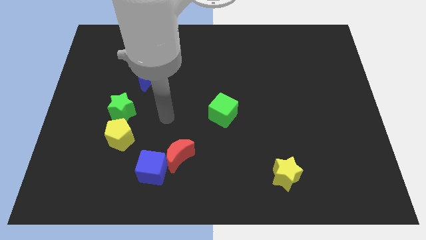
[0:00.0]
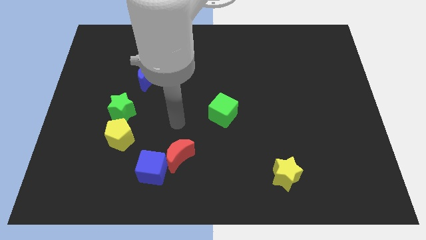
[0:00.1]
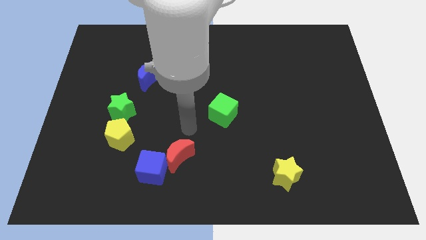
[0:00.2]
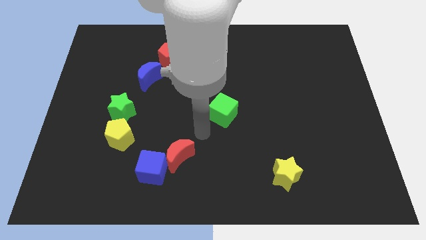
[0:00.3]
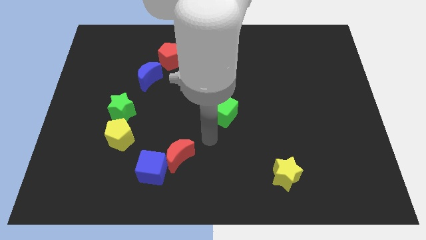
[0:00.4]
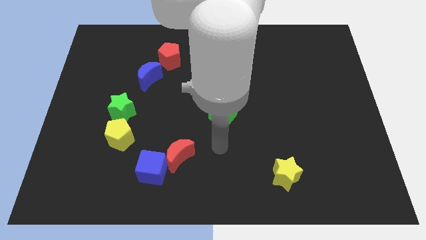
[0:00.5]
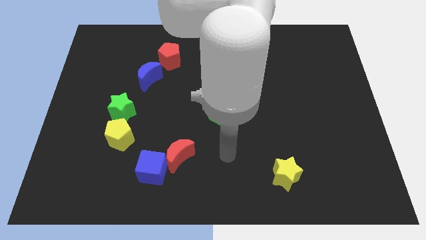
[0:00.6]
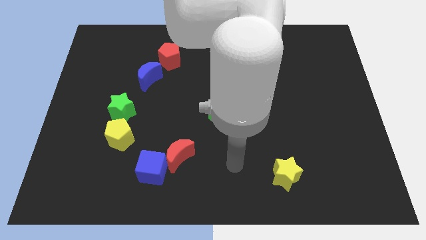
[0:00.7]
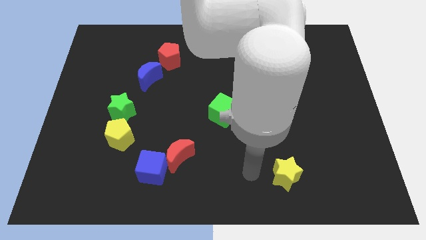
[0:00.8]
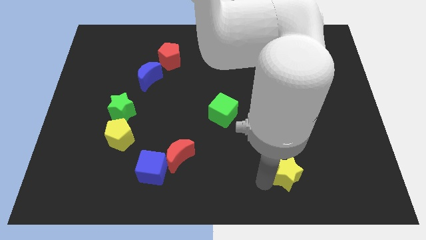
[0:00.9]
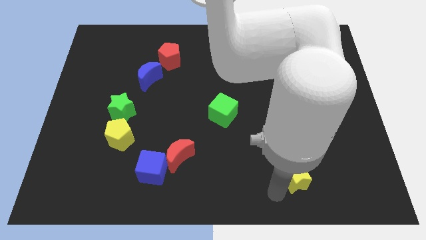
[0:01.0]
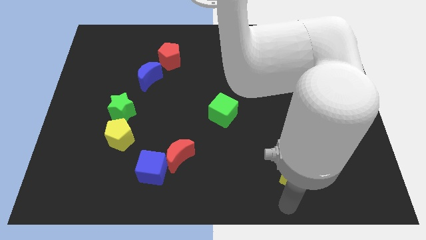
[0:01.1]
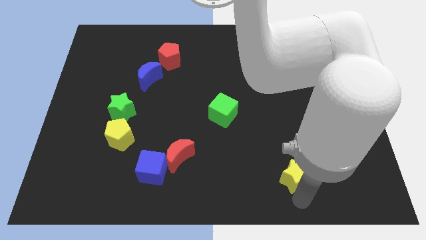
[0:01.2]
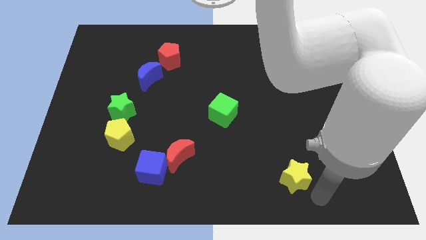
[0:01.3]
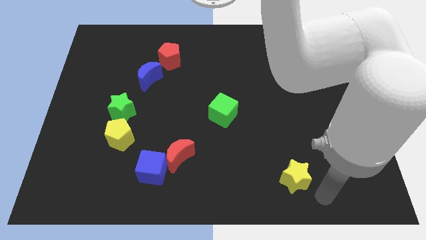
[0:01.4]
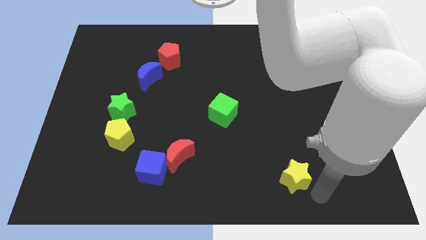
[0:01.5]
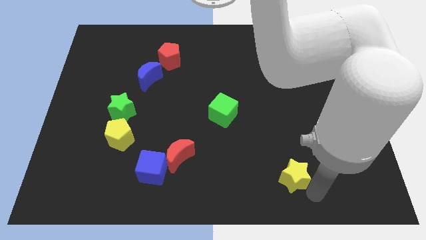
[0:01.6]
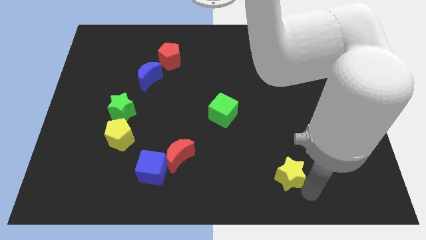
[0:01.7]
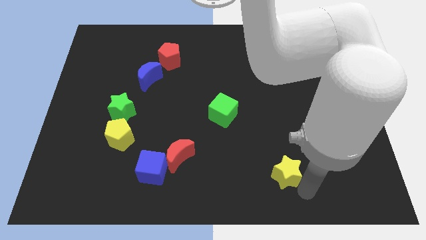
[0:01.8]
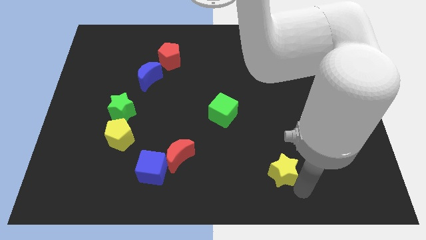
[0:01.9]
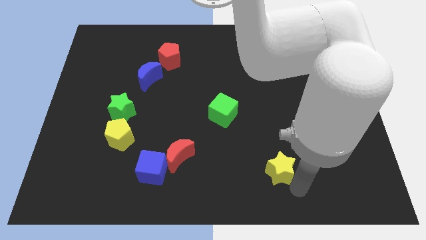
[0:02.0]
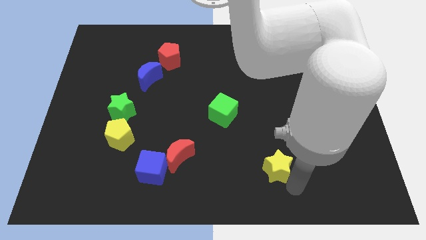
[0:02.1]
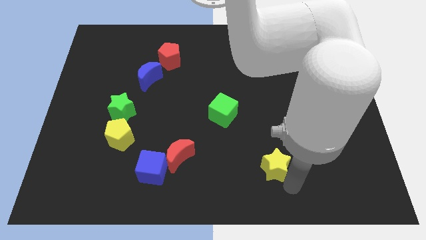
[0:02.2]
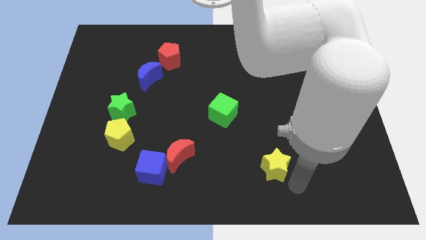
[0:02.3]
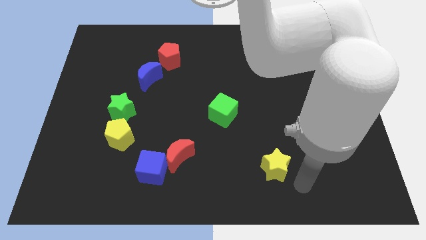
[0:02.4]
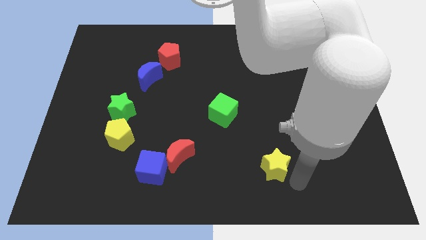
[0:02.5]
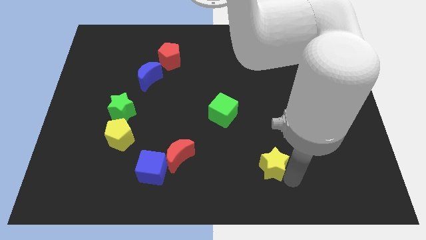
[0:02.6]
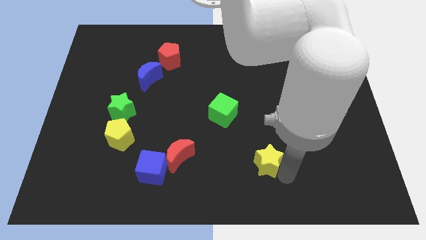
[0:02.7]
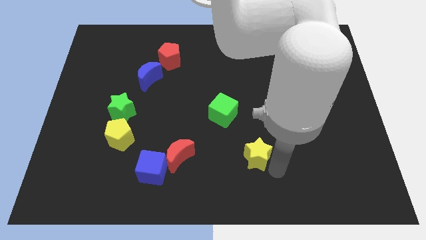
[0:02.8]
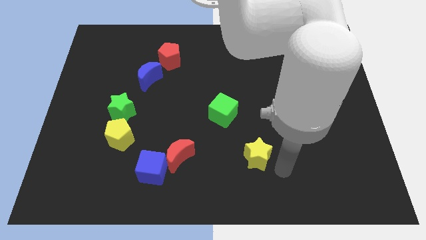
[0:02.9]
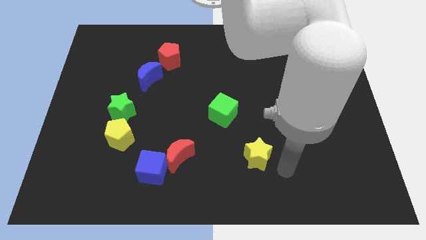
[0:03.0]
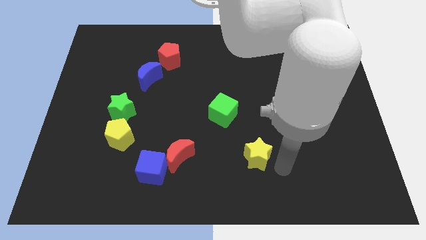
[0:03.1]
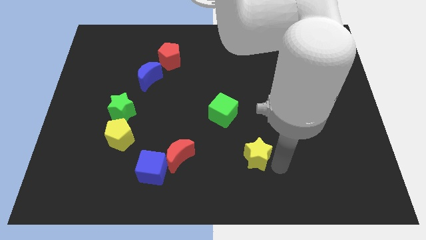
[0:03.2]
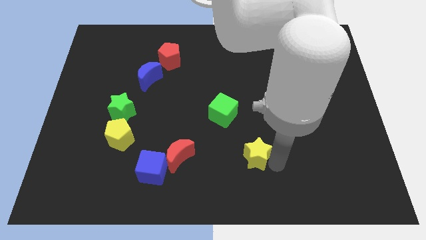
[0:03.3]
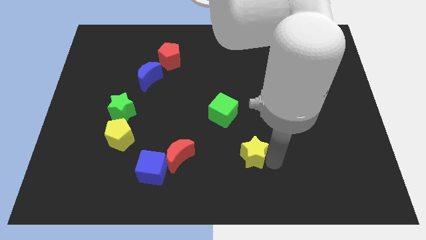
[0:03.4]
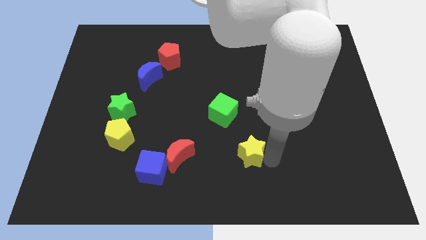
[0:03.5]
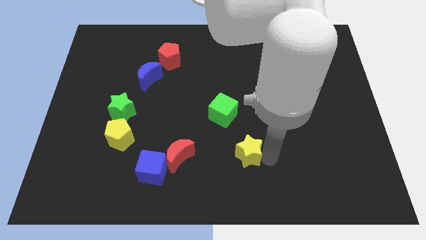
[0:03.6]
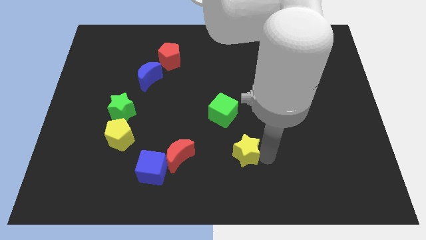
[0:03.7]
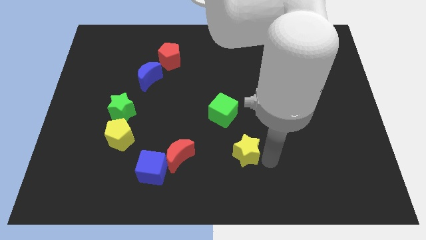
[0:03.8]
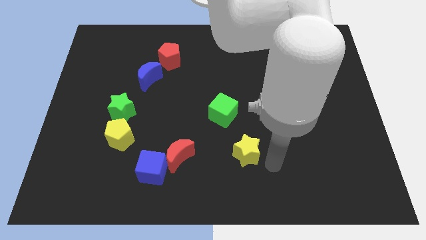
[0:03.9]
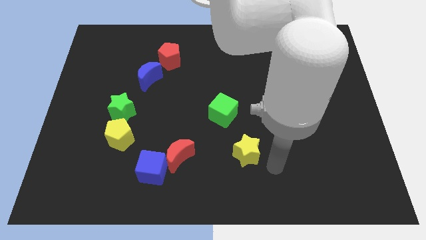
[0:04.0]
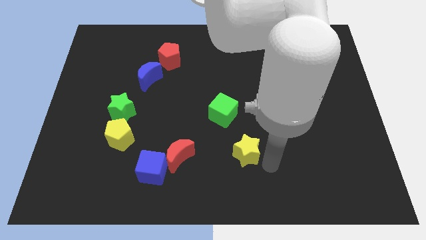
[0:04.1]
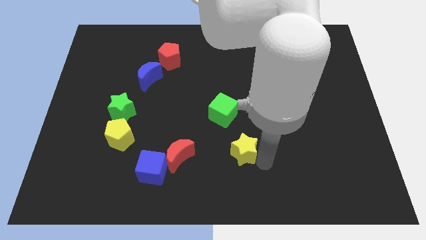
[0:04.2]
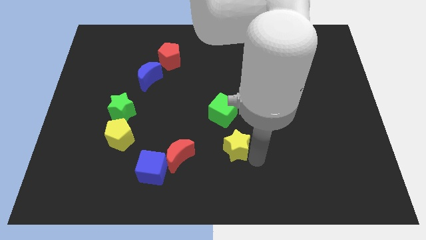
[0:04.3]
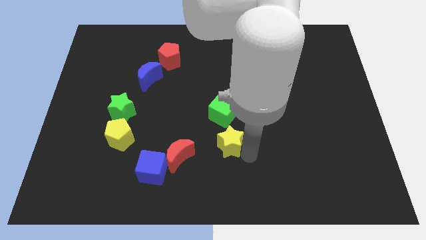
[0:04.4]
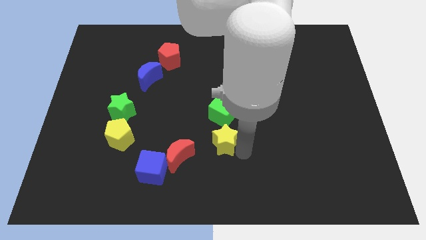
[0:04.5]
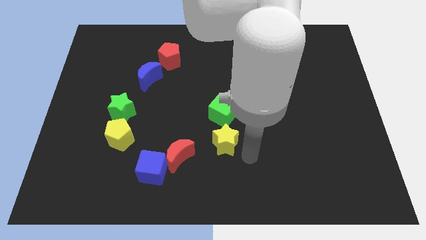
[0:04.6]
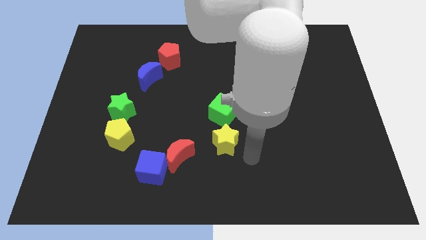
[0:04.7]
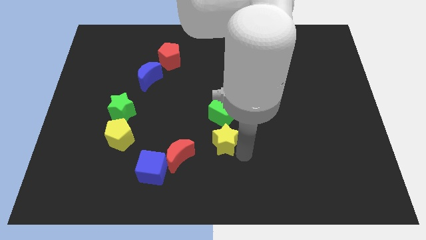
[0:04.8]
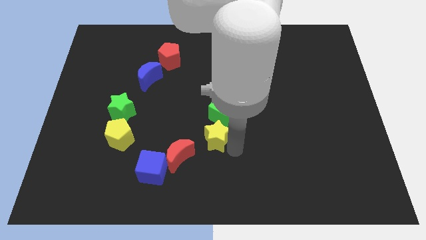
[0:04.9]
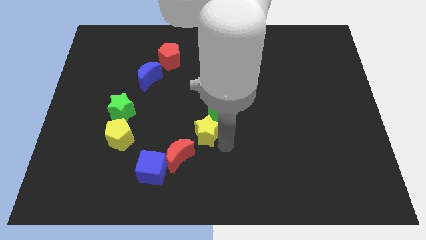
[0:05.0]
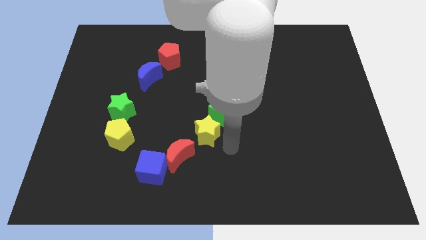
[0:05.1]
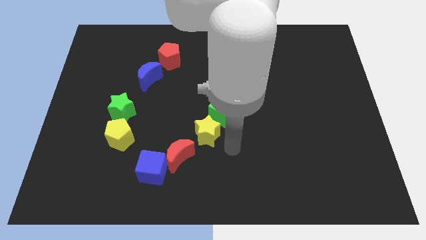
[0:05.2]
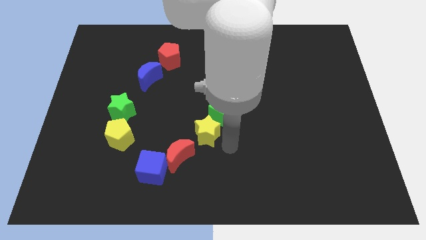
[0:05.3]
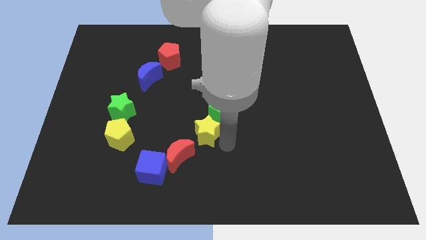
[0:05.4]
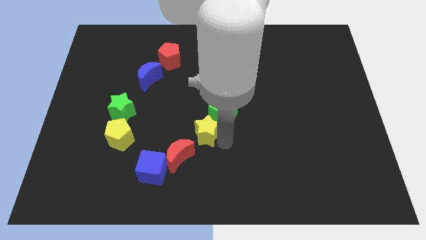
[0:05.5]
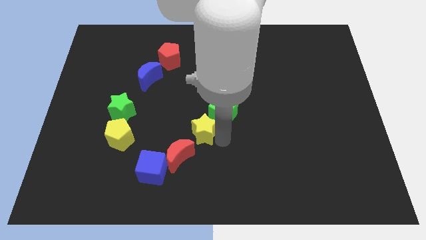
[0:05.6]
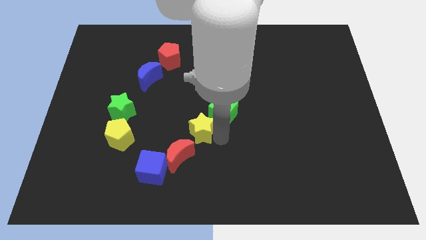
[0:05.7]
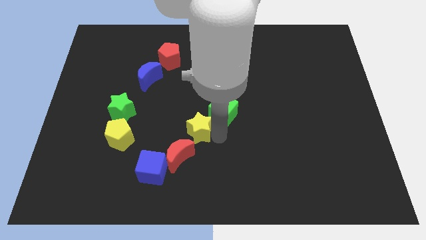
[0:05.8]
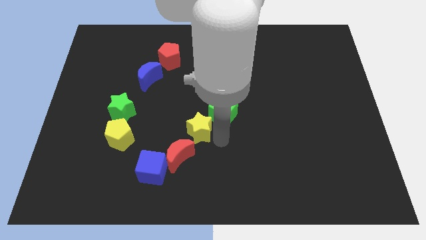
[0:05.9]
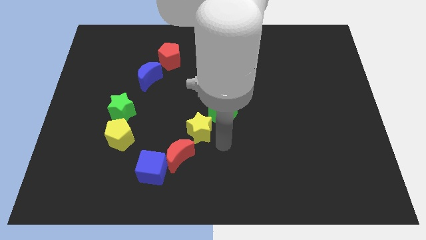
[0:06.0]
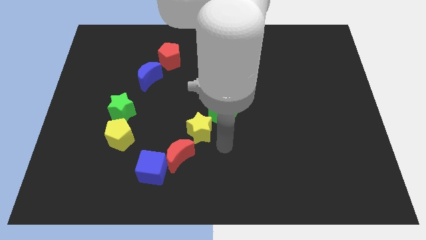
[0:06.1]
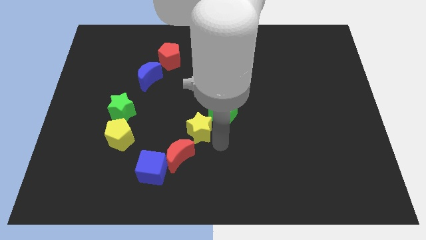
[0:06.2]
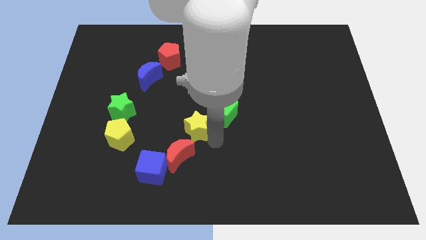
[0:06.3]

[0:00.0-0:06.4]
push the yellow star up and then left

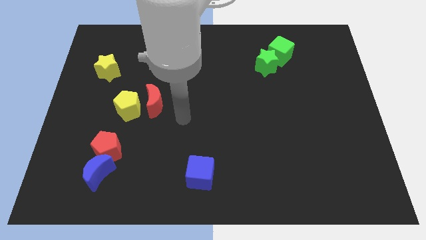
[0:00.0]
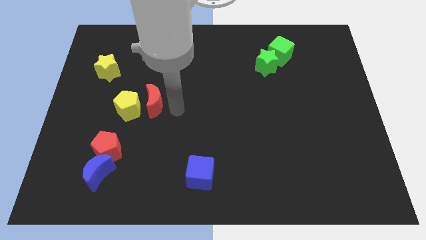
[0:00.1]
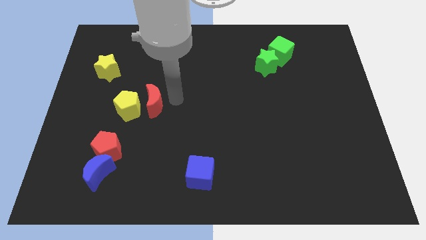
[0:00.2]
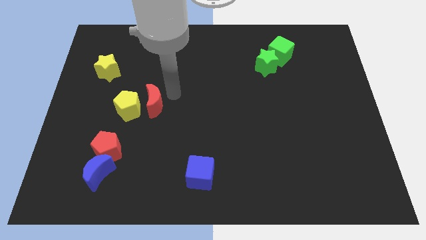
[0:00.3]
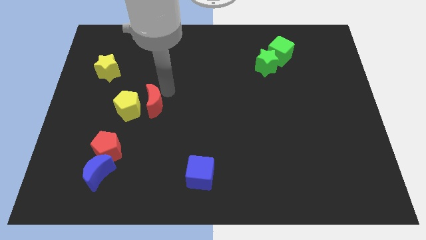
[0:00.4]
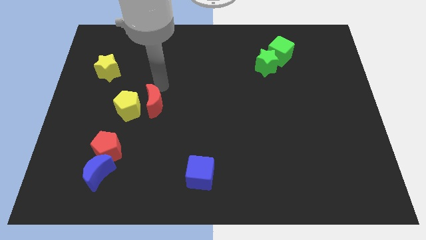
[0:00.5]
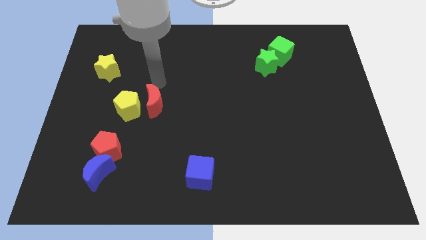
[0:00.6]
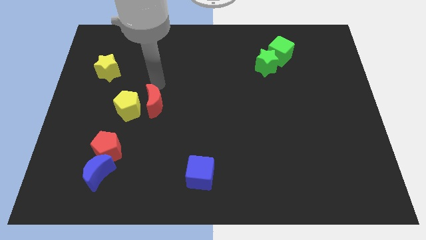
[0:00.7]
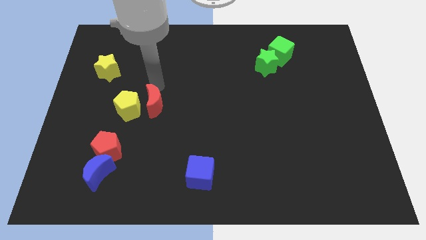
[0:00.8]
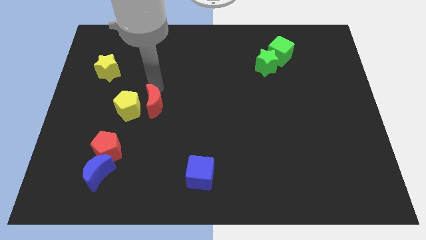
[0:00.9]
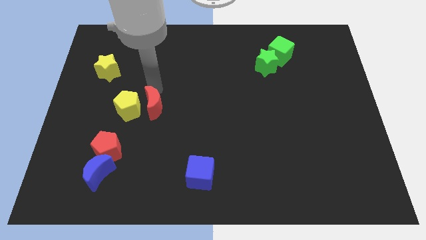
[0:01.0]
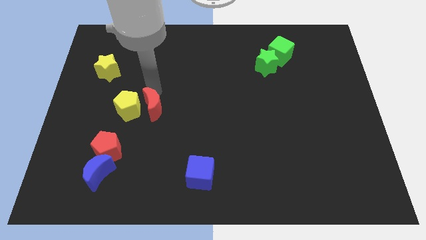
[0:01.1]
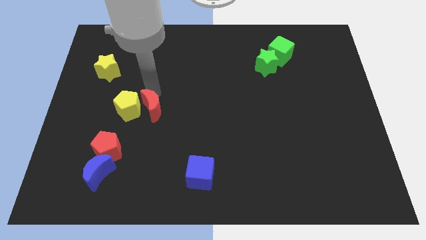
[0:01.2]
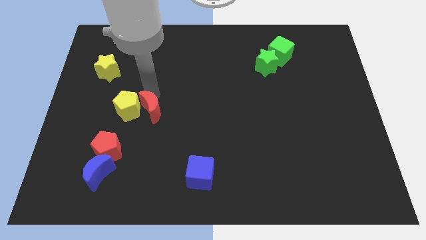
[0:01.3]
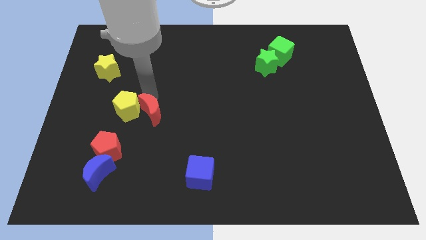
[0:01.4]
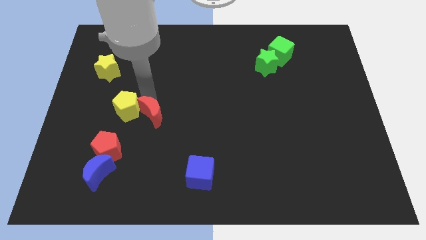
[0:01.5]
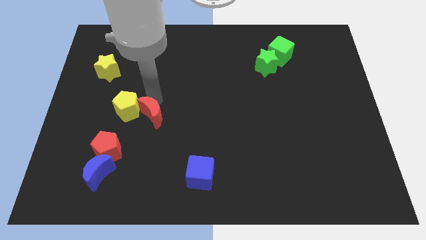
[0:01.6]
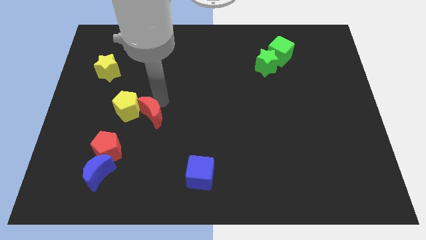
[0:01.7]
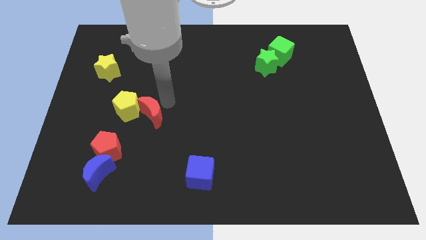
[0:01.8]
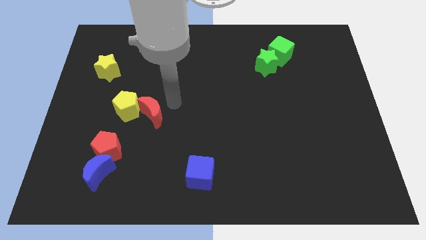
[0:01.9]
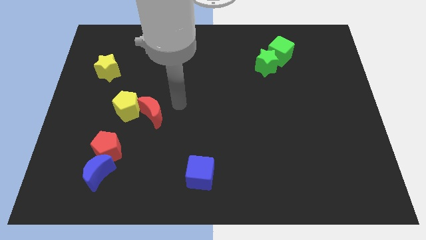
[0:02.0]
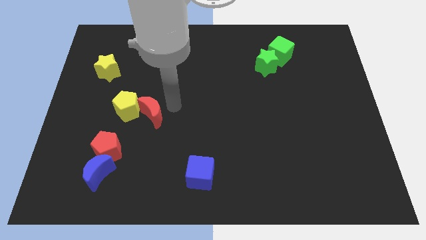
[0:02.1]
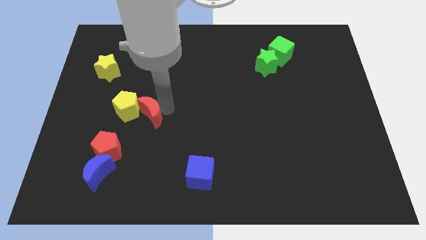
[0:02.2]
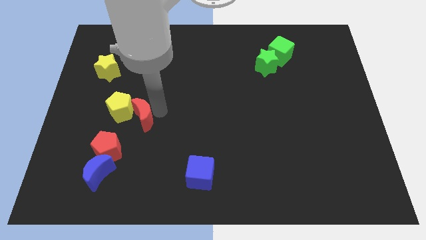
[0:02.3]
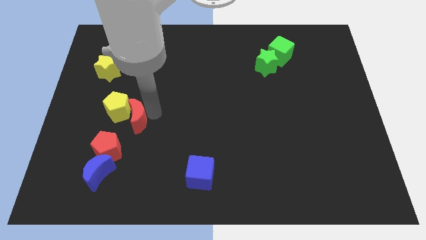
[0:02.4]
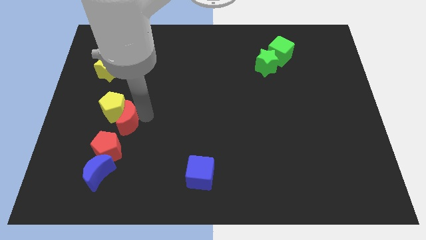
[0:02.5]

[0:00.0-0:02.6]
slide the red moon diagonally downwards and left a bit
